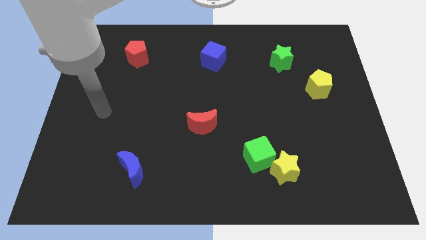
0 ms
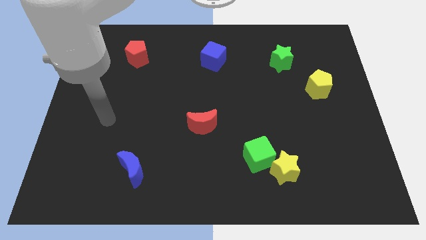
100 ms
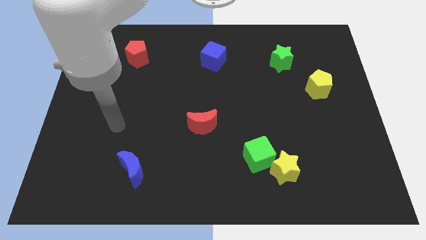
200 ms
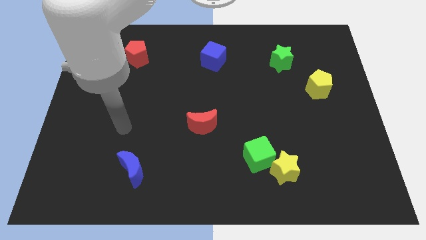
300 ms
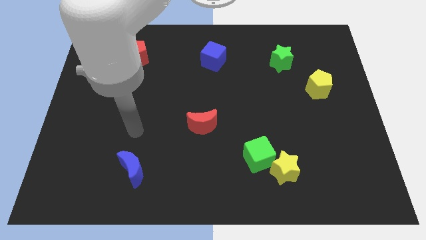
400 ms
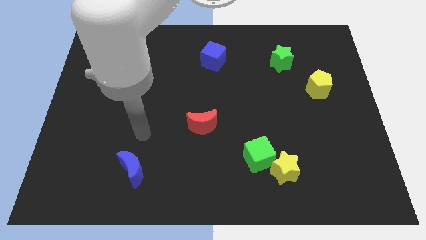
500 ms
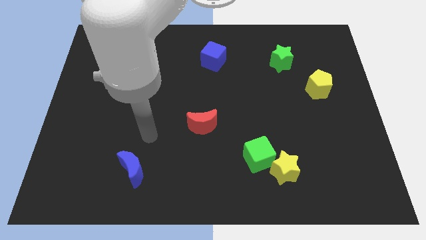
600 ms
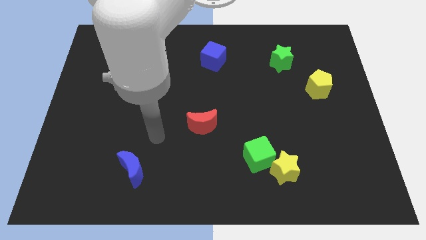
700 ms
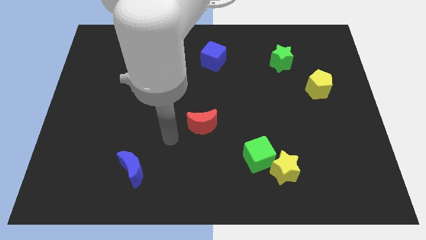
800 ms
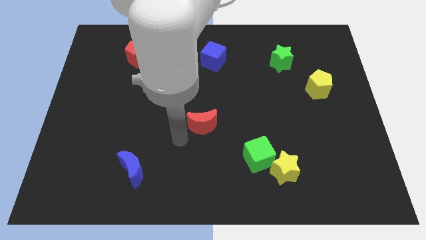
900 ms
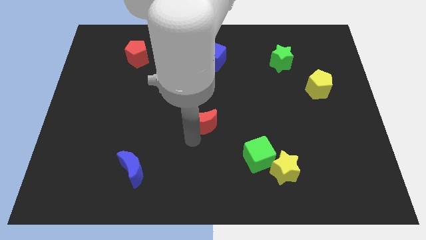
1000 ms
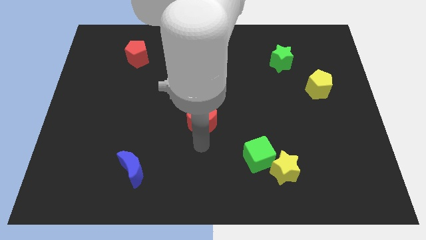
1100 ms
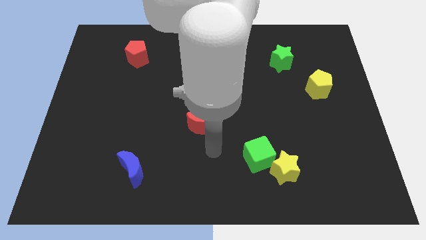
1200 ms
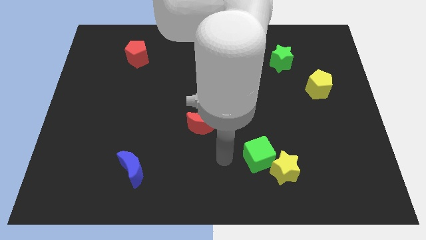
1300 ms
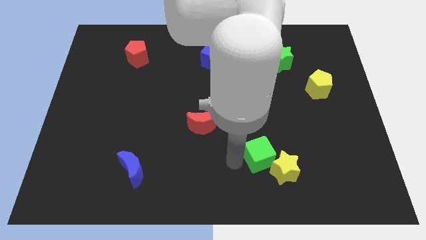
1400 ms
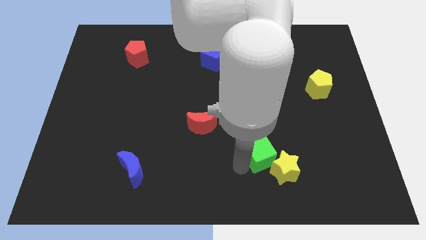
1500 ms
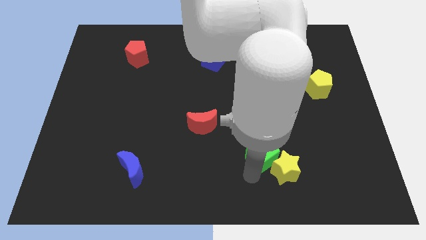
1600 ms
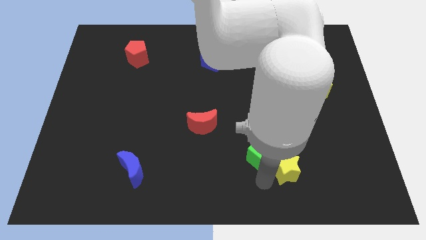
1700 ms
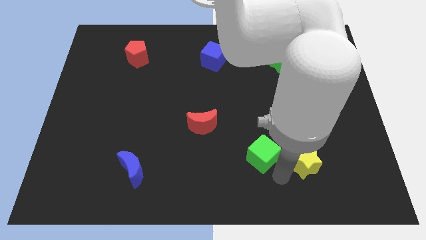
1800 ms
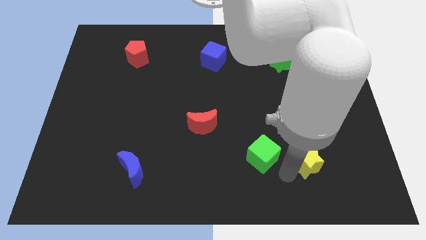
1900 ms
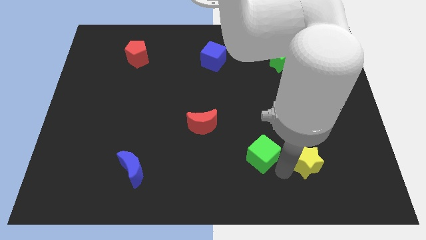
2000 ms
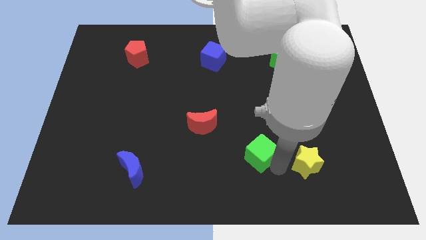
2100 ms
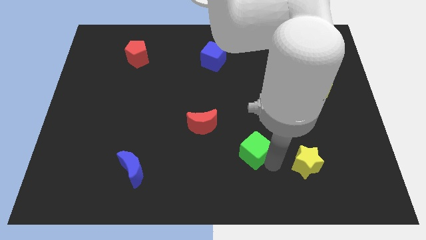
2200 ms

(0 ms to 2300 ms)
move the green cube away from the yellow star

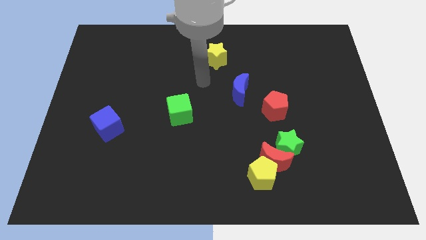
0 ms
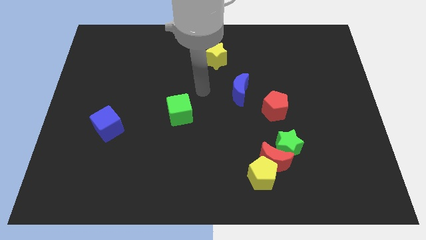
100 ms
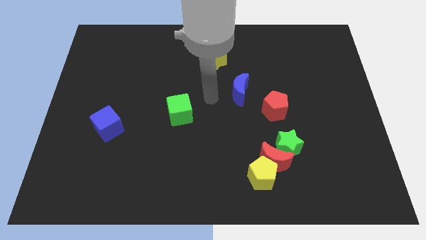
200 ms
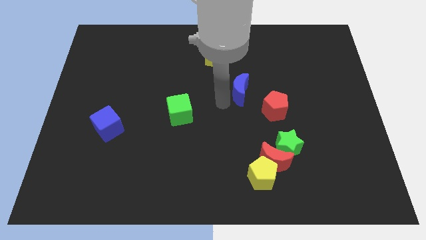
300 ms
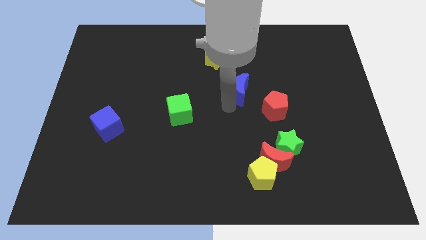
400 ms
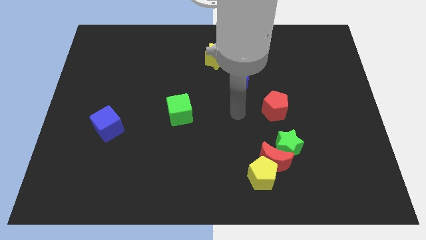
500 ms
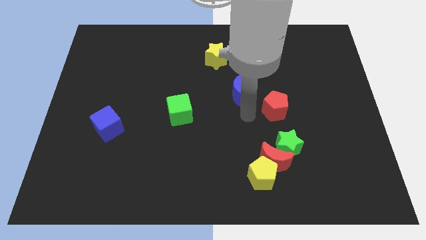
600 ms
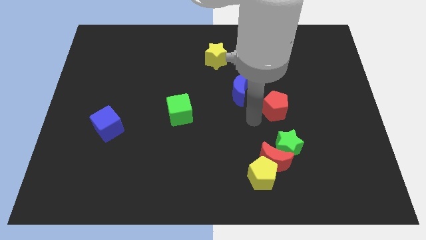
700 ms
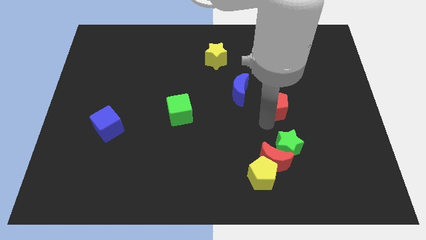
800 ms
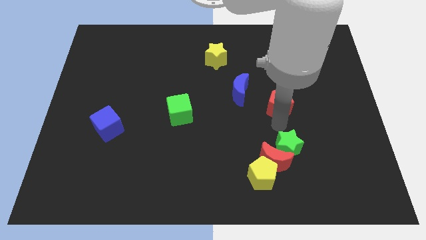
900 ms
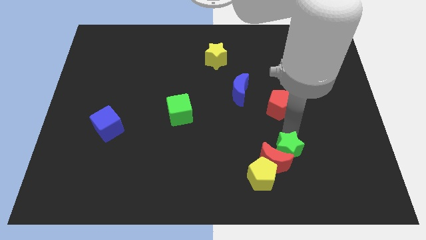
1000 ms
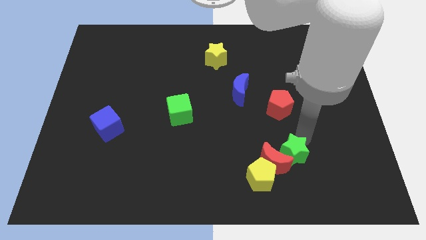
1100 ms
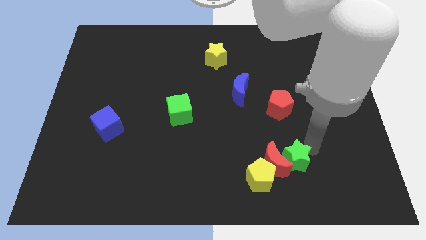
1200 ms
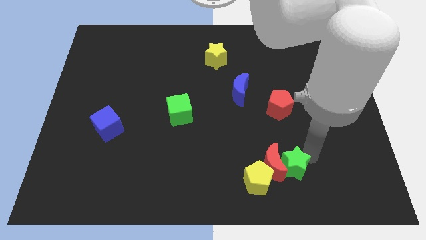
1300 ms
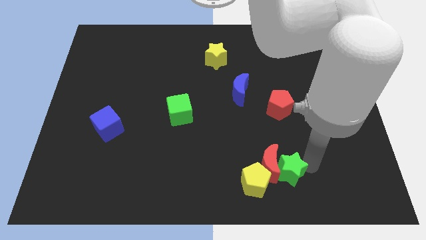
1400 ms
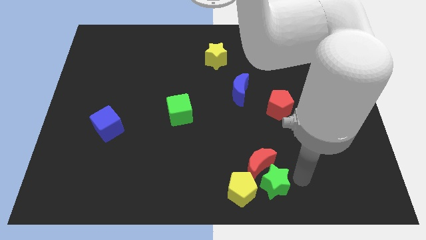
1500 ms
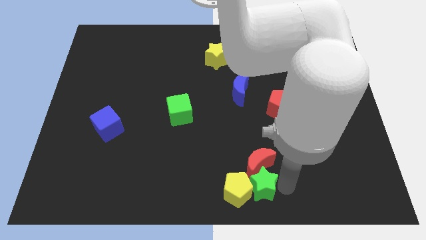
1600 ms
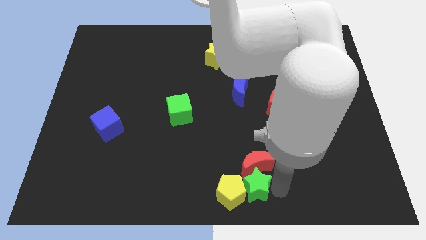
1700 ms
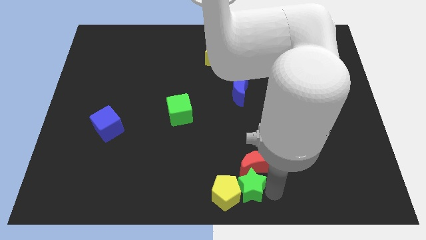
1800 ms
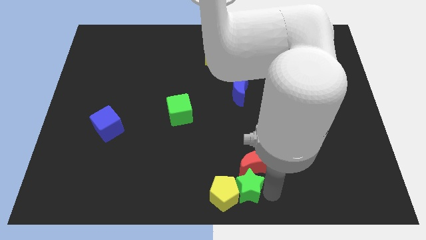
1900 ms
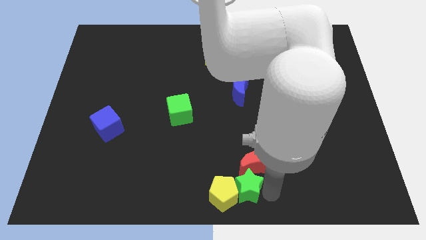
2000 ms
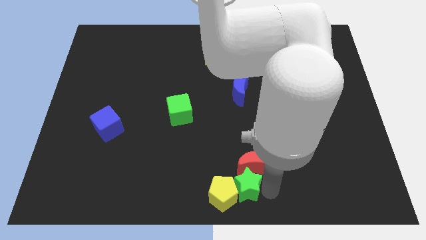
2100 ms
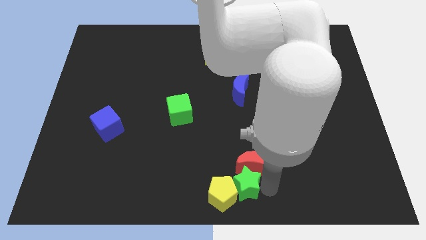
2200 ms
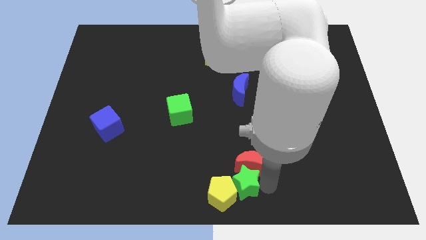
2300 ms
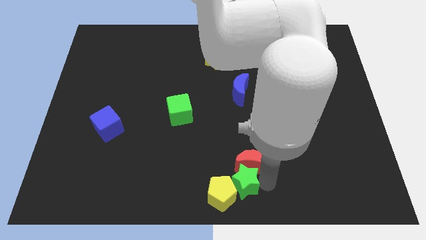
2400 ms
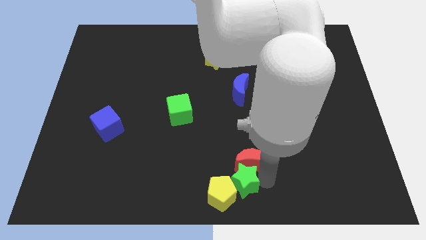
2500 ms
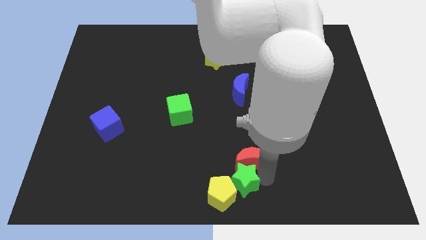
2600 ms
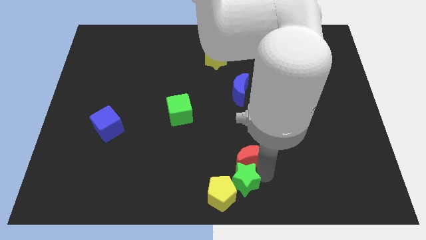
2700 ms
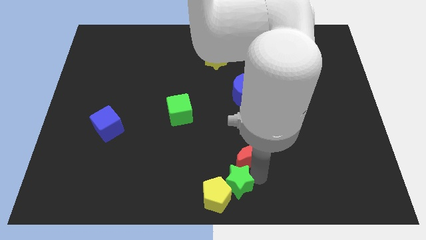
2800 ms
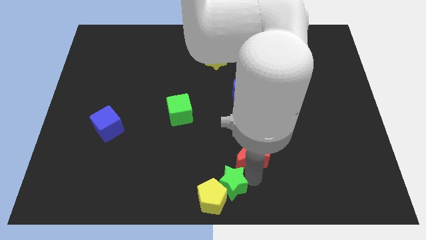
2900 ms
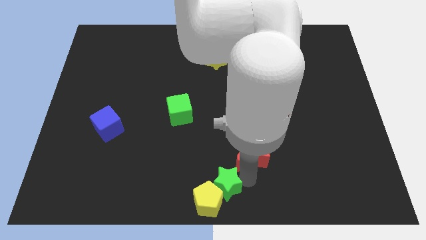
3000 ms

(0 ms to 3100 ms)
separate the red moon from the yellow pentagon and green star

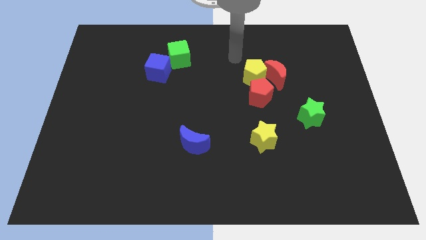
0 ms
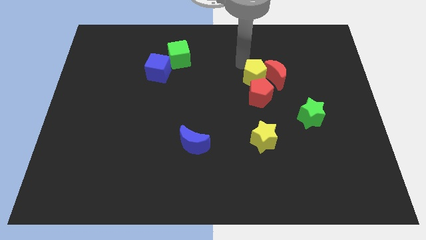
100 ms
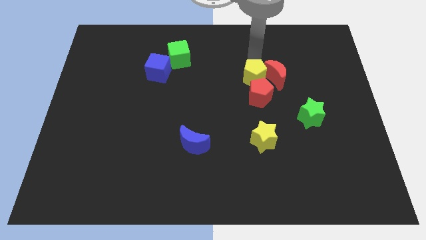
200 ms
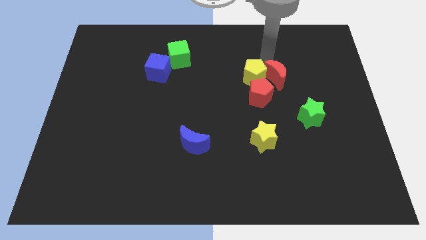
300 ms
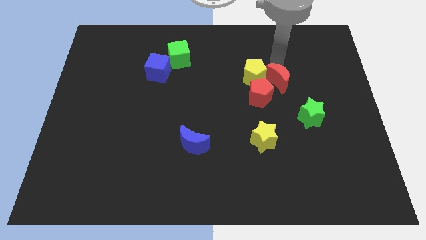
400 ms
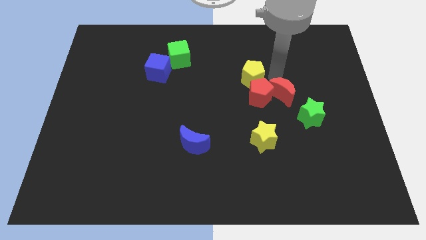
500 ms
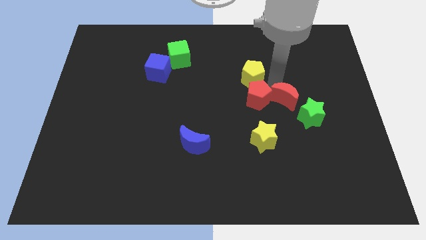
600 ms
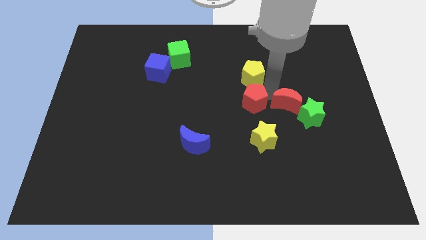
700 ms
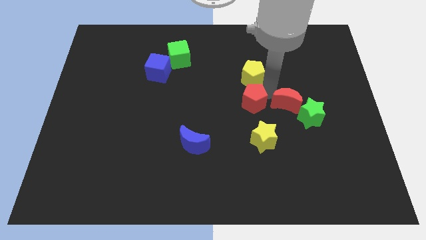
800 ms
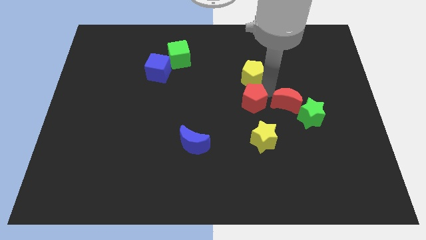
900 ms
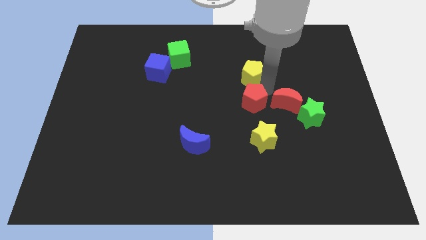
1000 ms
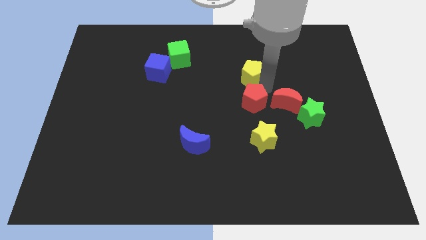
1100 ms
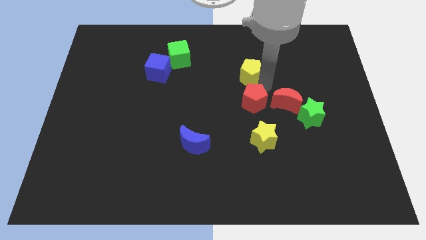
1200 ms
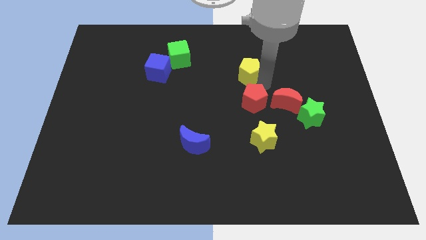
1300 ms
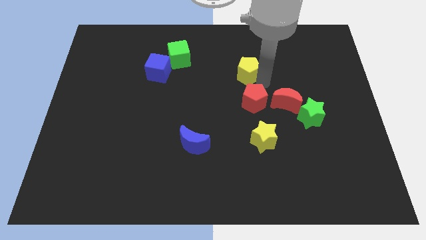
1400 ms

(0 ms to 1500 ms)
move the yellow pentagon away from the red moon and red pentagon

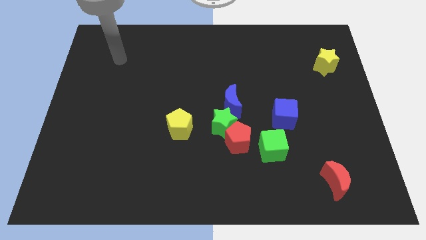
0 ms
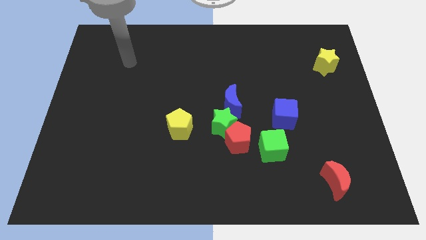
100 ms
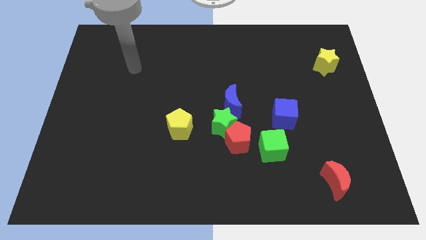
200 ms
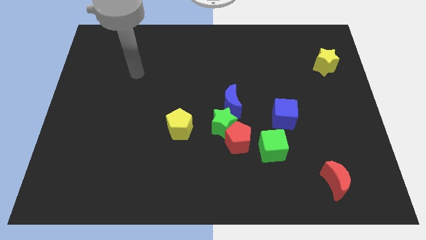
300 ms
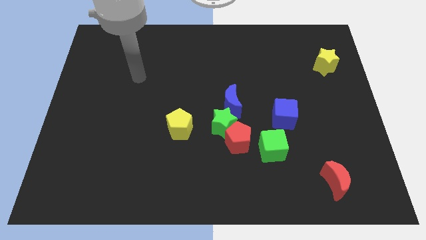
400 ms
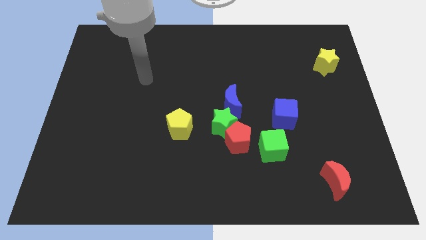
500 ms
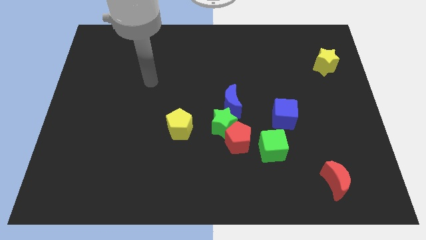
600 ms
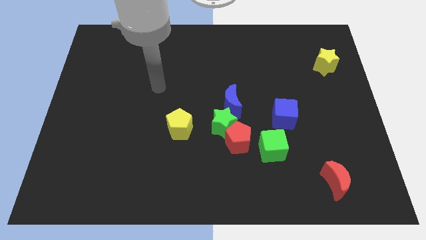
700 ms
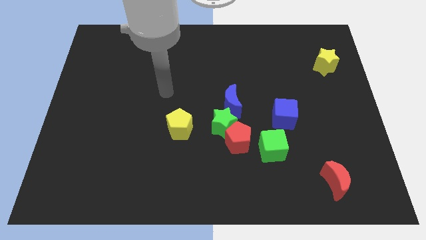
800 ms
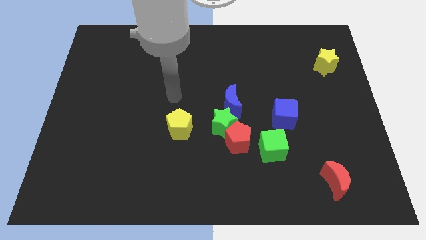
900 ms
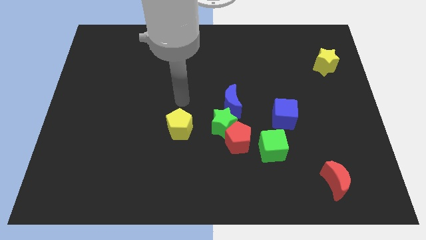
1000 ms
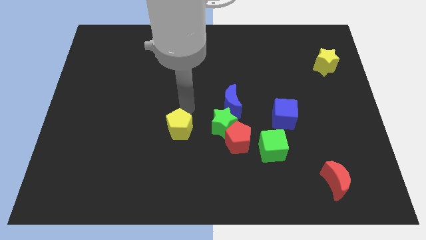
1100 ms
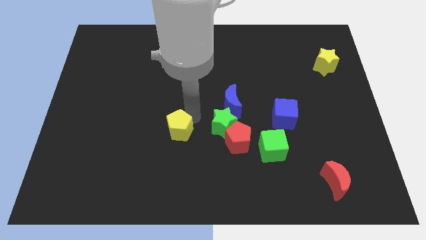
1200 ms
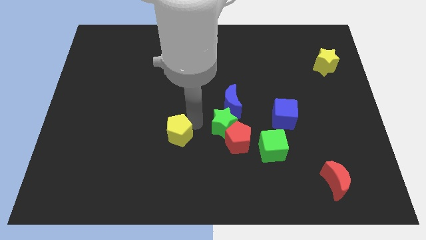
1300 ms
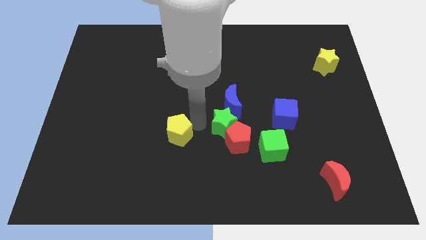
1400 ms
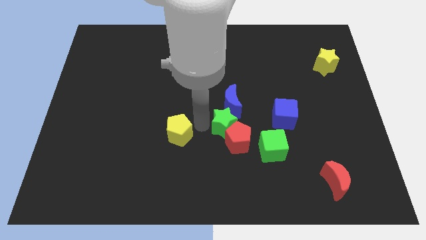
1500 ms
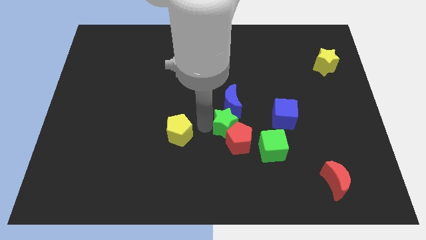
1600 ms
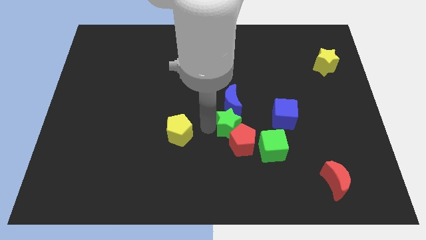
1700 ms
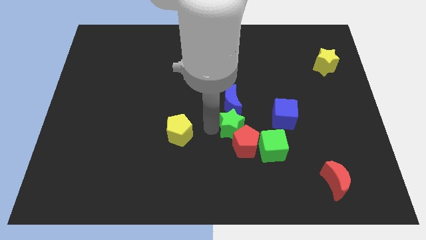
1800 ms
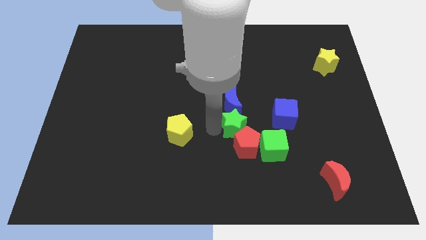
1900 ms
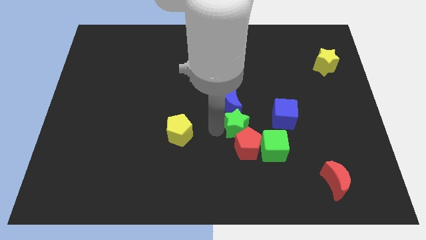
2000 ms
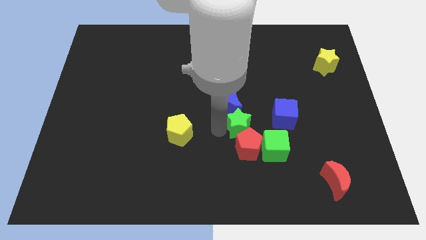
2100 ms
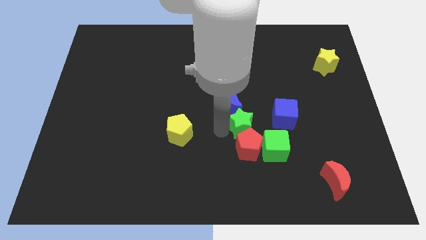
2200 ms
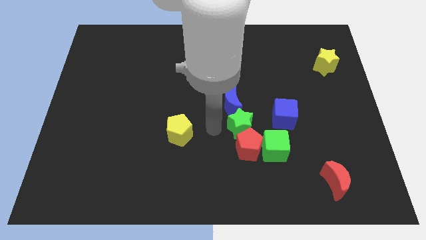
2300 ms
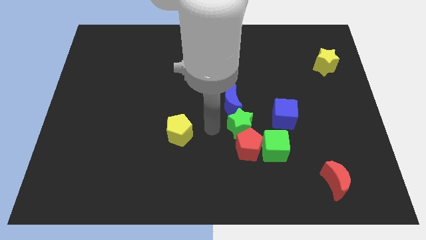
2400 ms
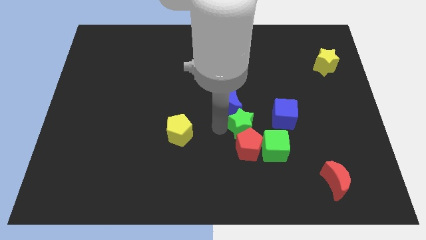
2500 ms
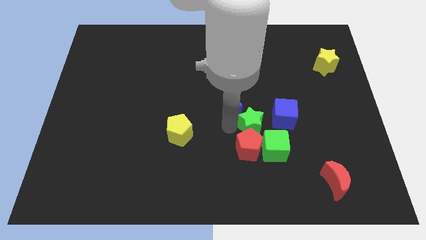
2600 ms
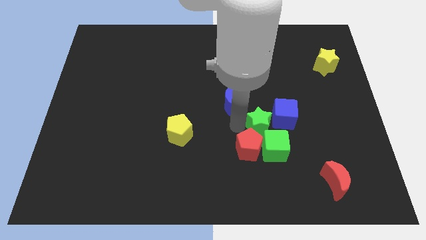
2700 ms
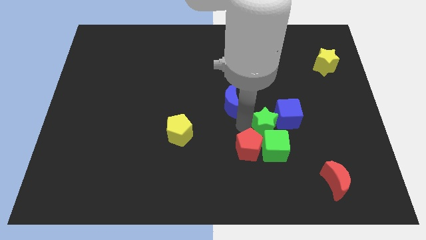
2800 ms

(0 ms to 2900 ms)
pull the green star apart from the red pentagon, blue moon, and yellow pentagon
